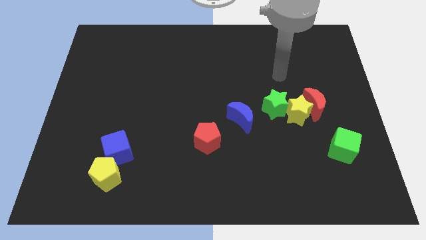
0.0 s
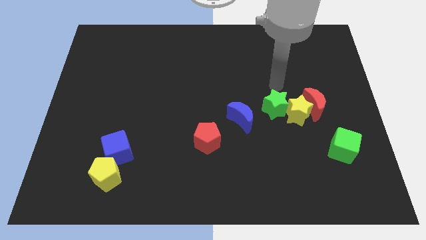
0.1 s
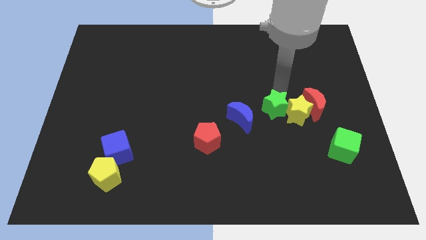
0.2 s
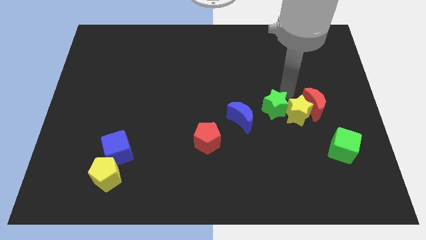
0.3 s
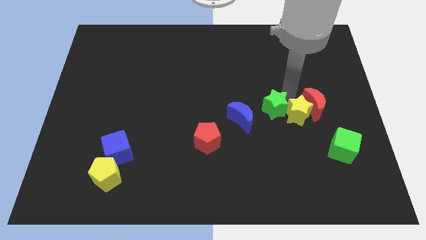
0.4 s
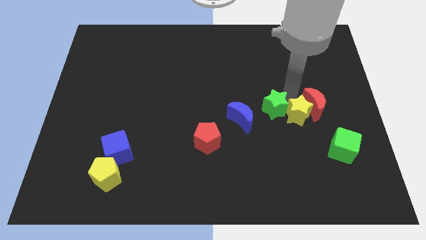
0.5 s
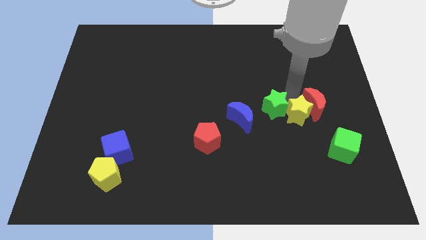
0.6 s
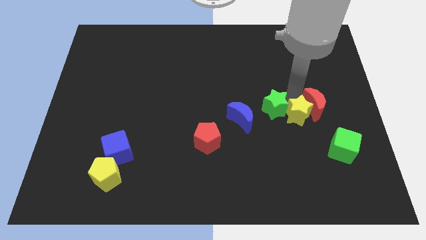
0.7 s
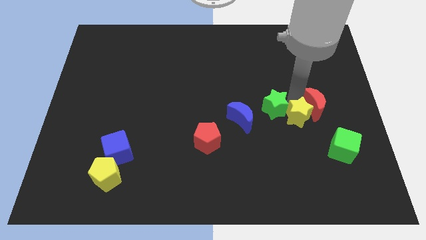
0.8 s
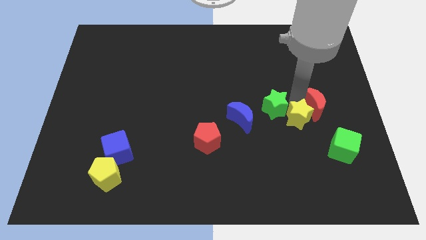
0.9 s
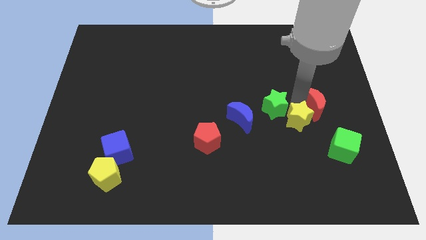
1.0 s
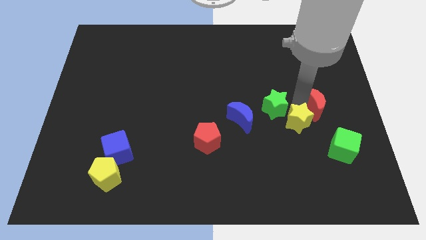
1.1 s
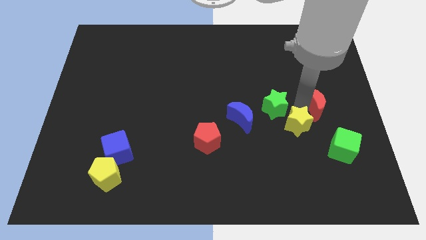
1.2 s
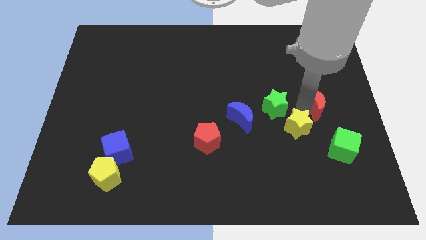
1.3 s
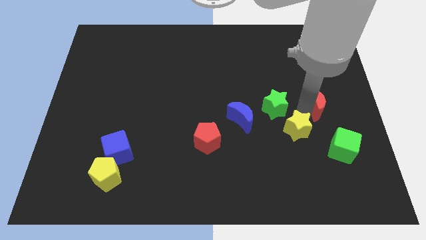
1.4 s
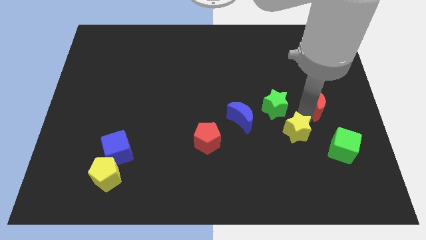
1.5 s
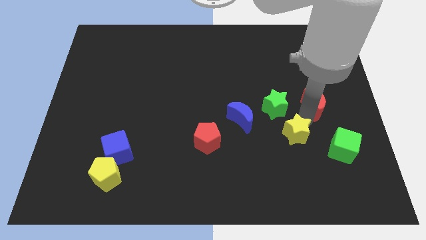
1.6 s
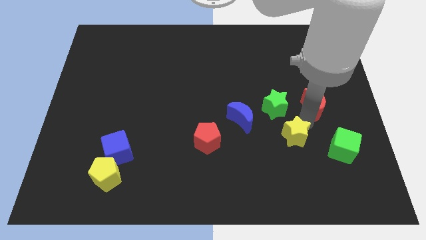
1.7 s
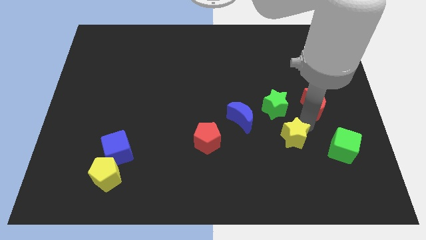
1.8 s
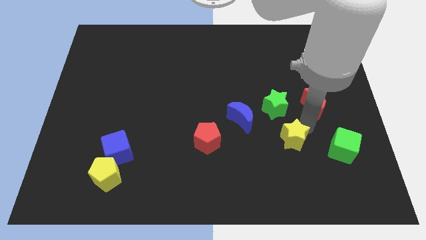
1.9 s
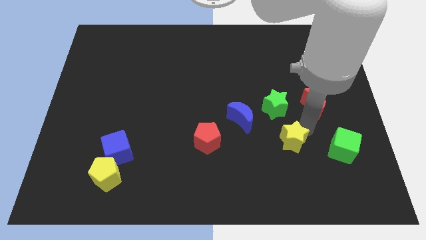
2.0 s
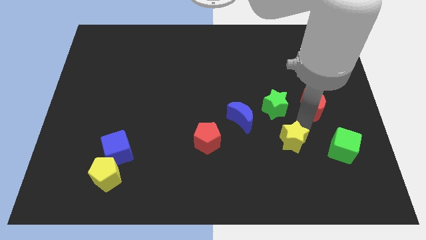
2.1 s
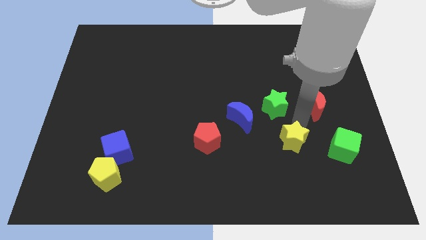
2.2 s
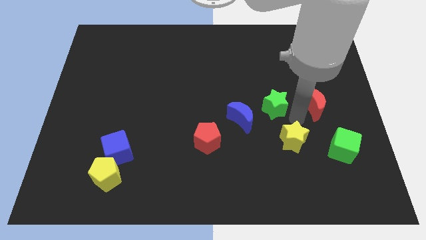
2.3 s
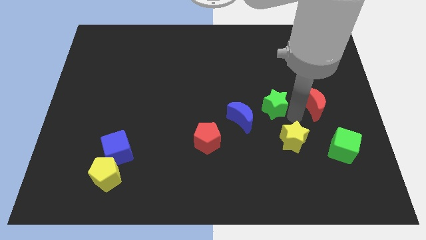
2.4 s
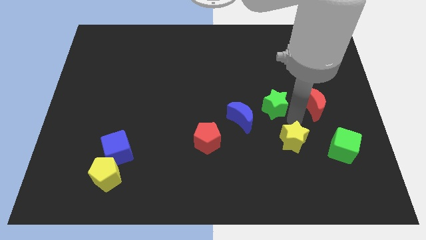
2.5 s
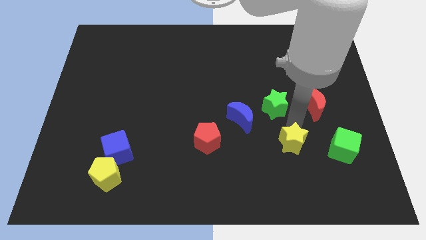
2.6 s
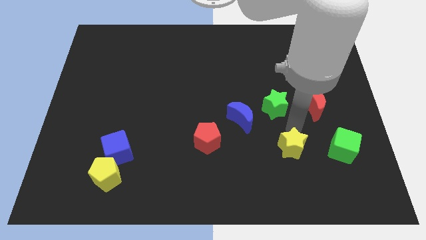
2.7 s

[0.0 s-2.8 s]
separate the yellow star from the red moon and green star

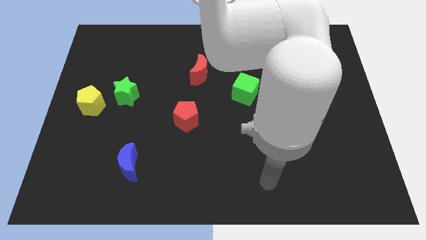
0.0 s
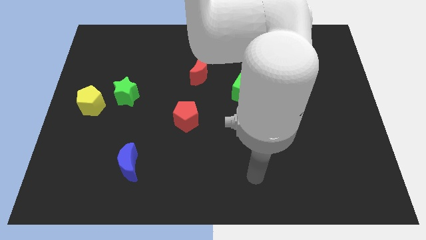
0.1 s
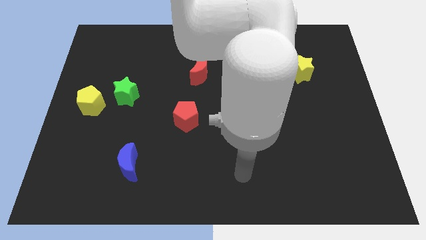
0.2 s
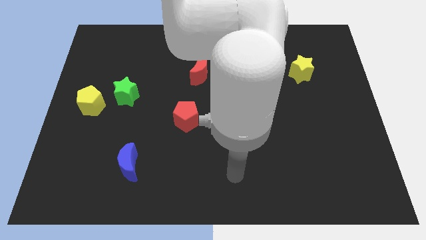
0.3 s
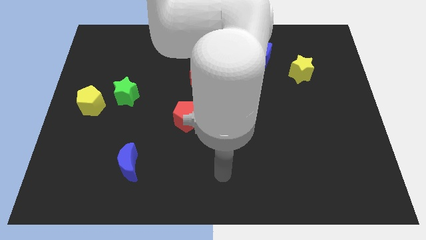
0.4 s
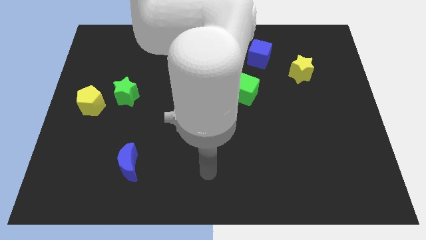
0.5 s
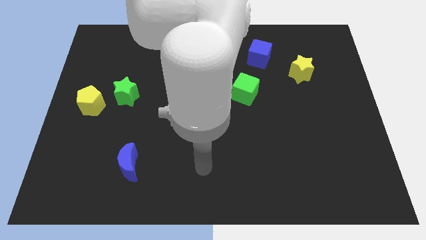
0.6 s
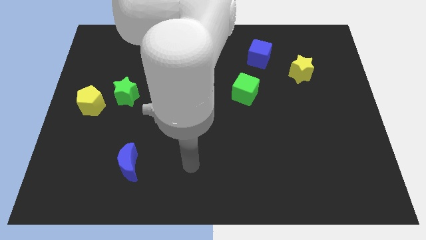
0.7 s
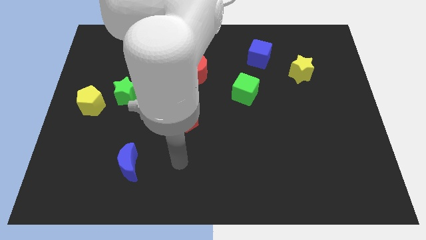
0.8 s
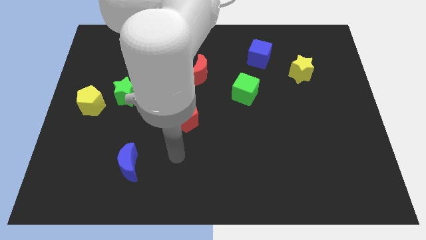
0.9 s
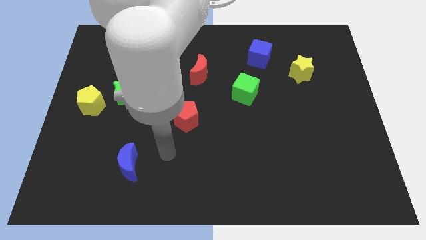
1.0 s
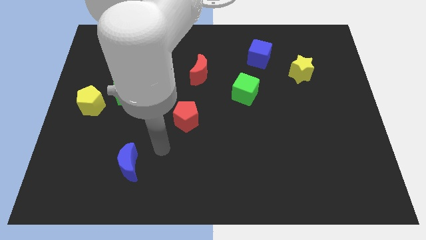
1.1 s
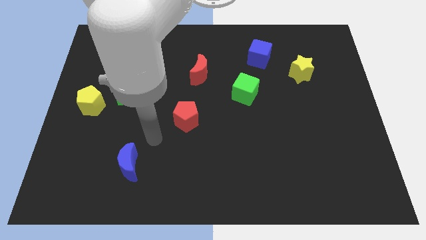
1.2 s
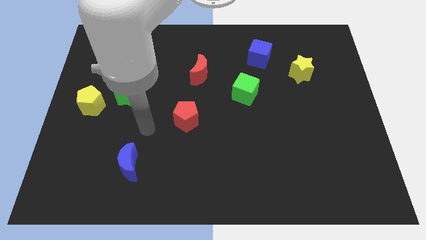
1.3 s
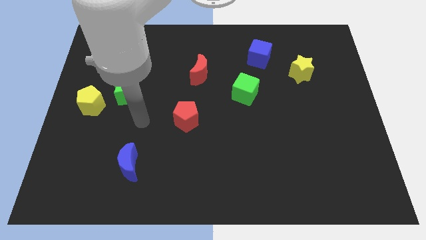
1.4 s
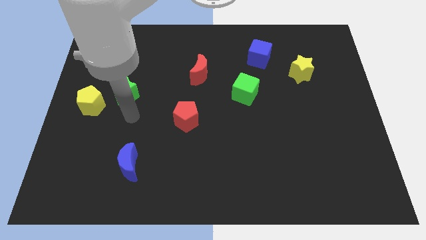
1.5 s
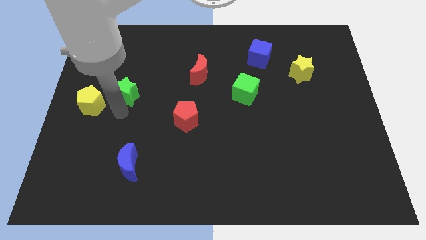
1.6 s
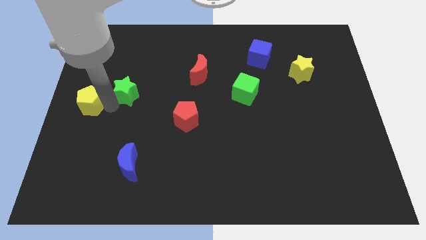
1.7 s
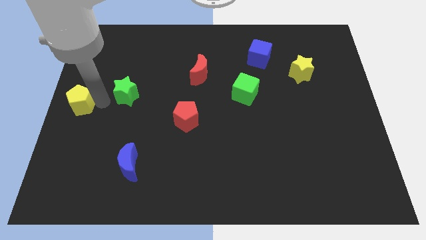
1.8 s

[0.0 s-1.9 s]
move the green star away from the yellow pentagon

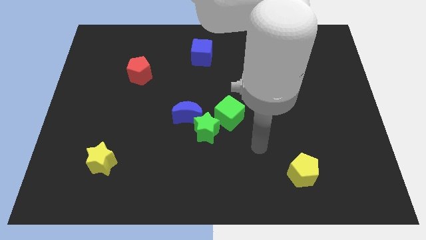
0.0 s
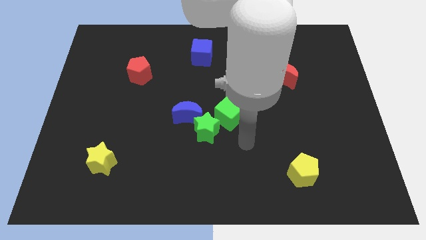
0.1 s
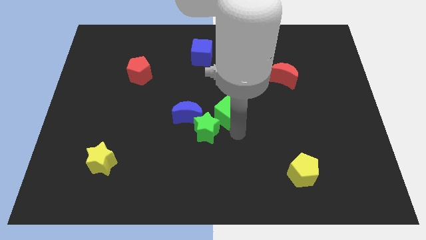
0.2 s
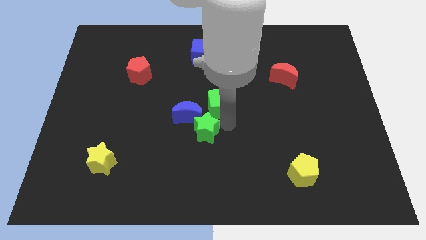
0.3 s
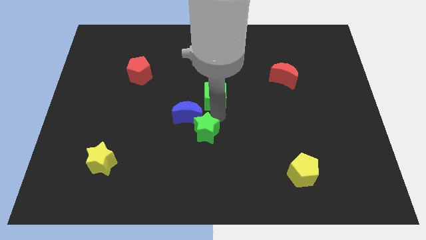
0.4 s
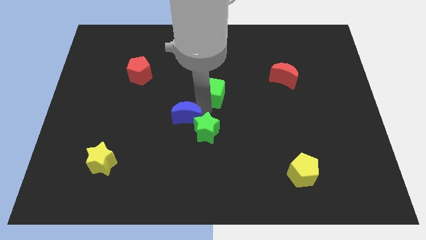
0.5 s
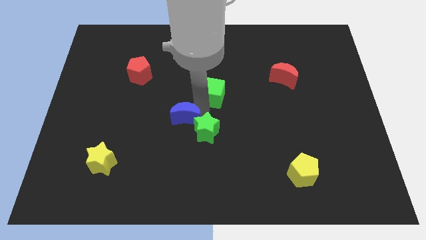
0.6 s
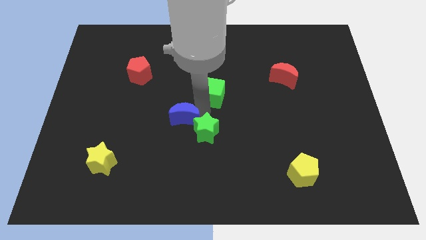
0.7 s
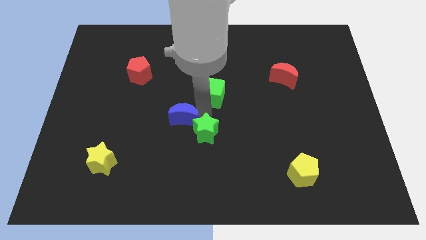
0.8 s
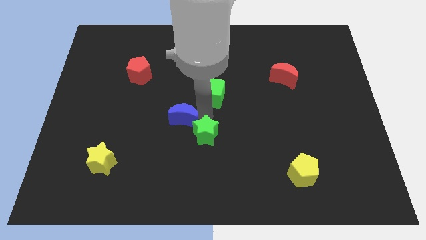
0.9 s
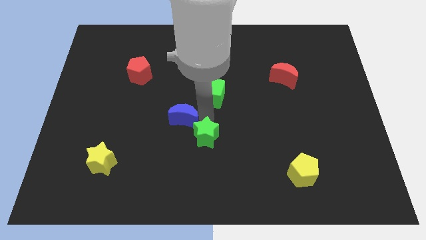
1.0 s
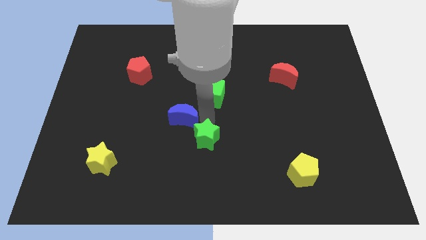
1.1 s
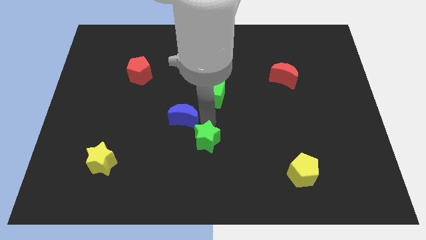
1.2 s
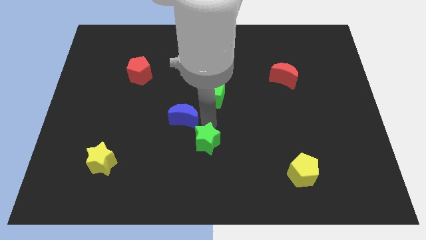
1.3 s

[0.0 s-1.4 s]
pull the green star apart from the blue moon and green cube

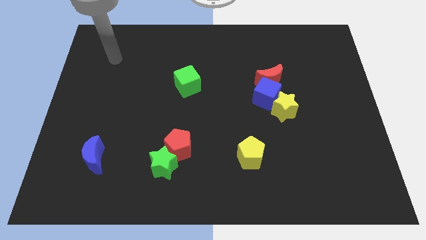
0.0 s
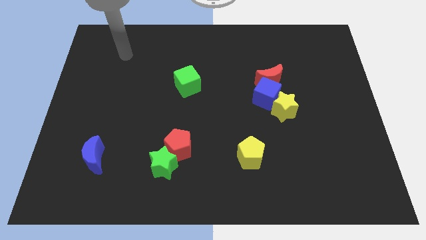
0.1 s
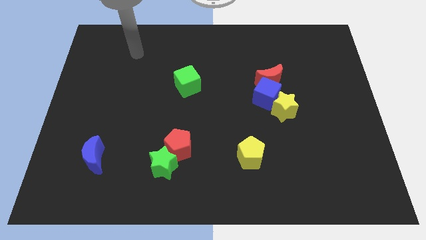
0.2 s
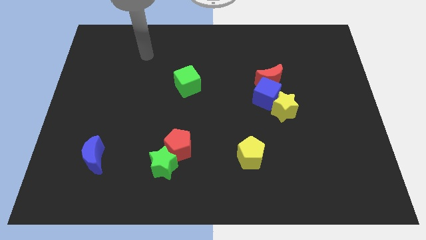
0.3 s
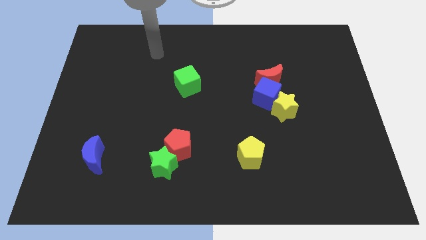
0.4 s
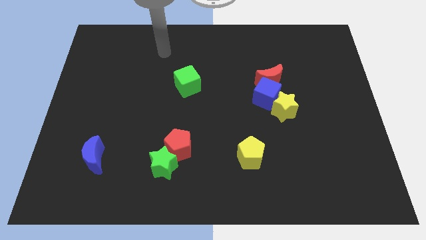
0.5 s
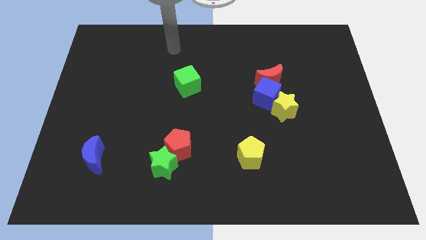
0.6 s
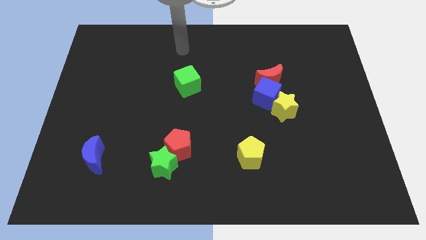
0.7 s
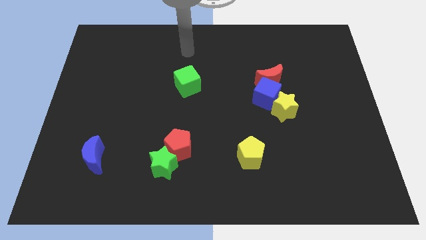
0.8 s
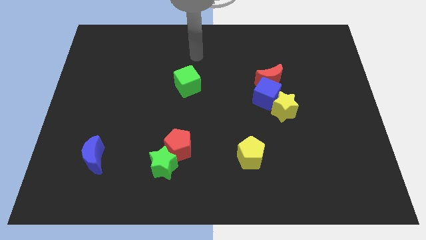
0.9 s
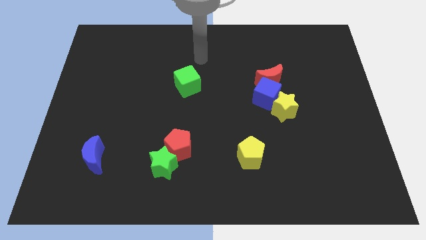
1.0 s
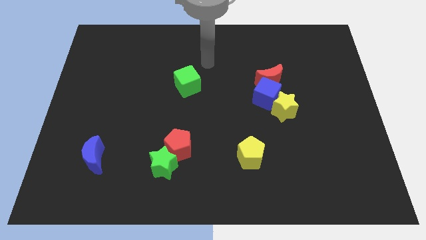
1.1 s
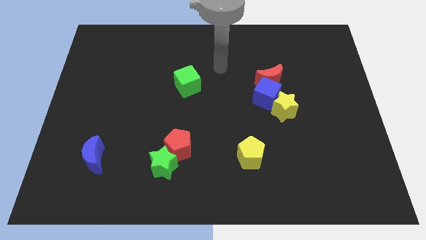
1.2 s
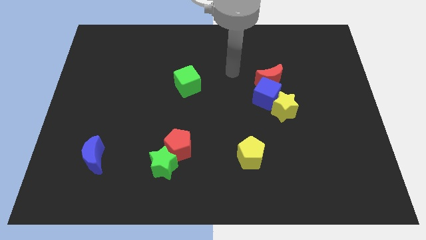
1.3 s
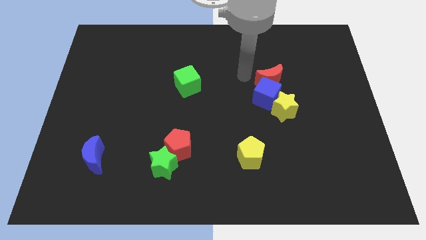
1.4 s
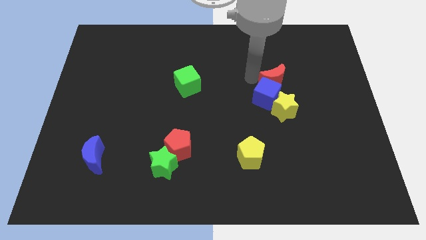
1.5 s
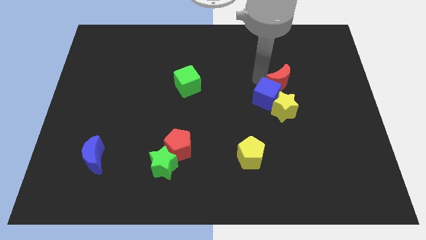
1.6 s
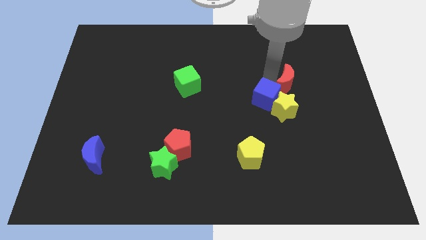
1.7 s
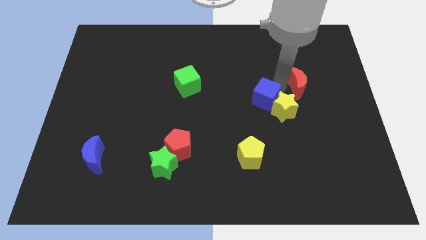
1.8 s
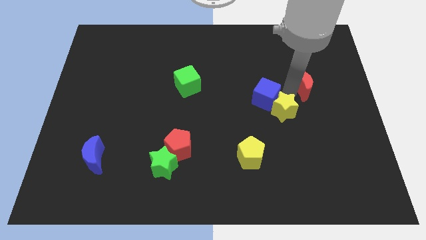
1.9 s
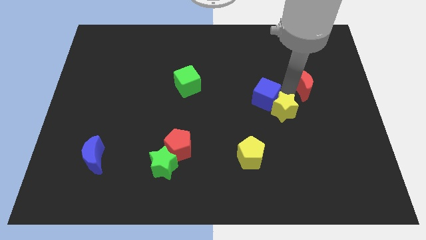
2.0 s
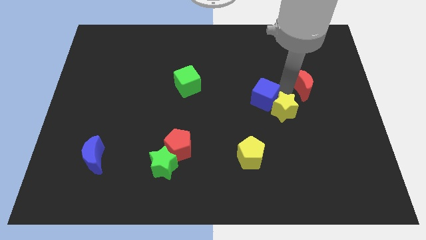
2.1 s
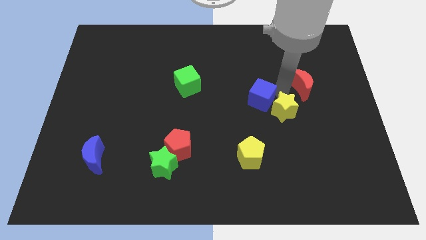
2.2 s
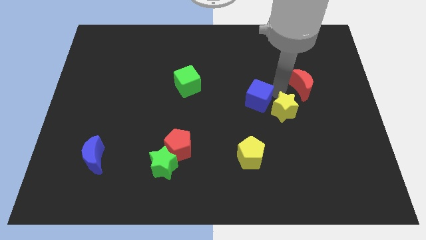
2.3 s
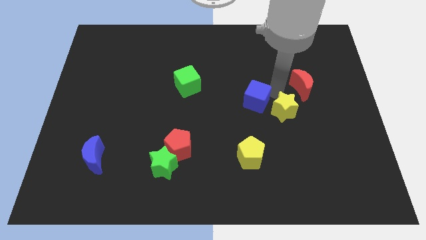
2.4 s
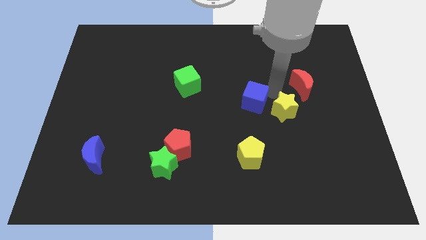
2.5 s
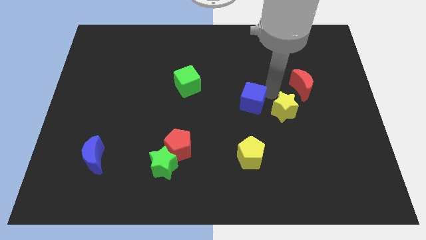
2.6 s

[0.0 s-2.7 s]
move the blue cube away from the red moon and yellow star

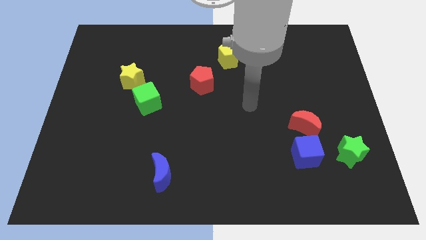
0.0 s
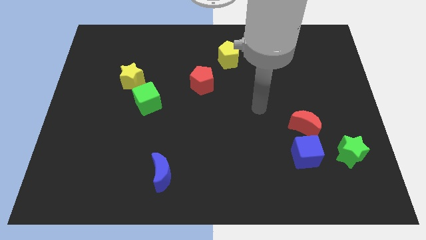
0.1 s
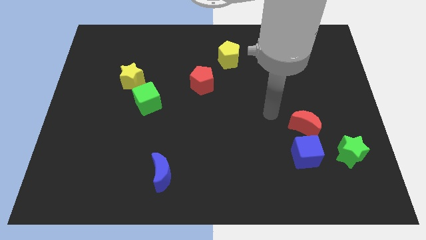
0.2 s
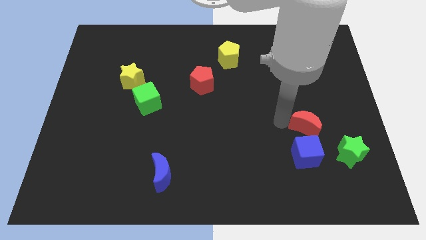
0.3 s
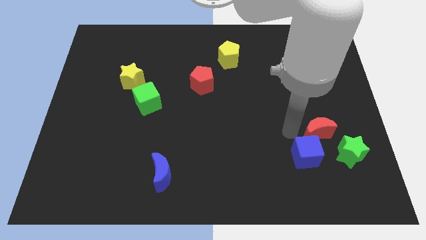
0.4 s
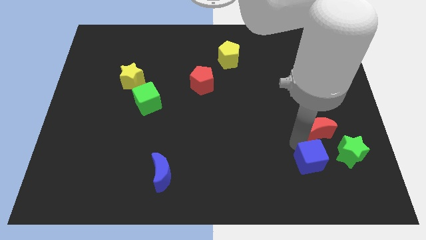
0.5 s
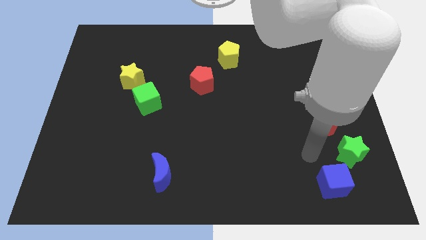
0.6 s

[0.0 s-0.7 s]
move the red moon away from the blue cube
